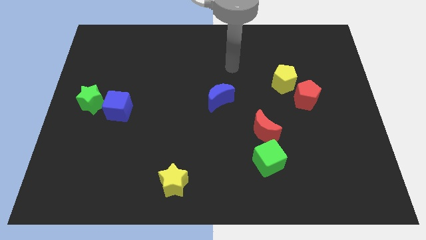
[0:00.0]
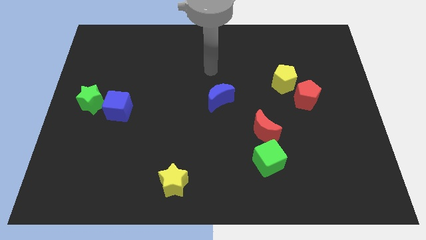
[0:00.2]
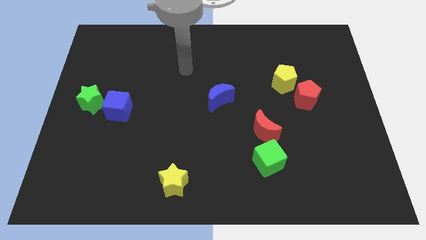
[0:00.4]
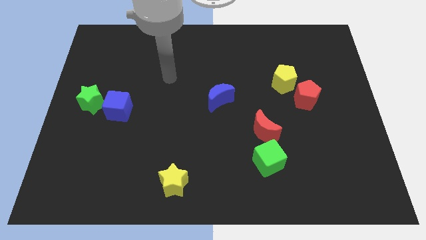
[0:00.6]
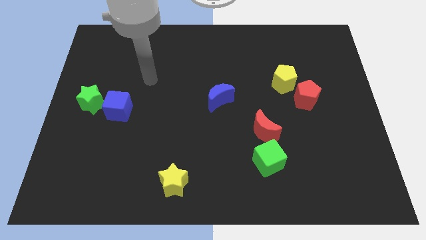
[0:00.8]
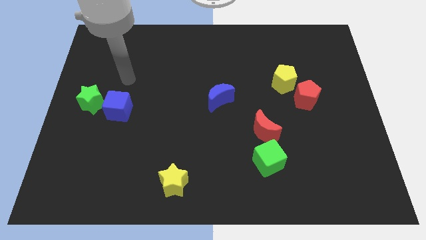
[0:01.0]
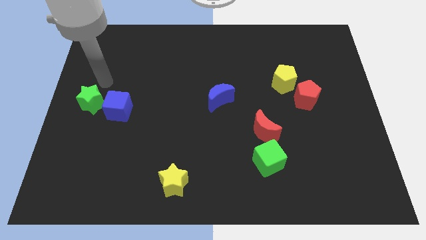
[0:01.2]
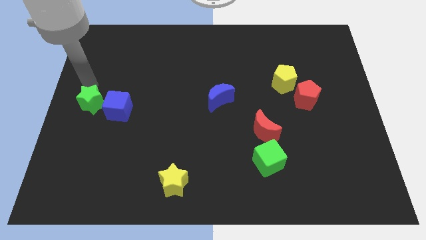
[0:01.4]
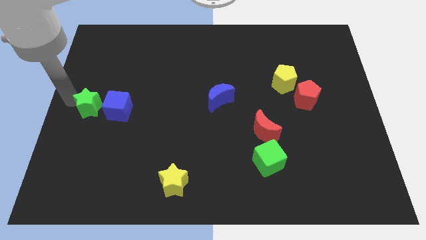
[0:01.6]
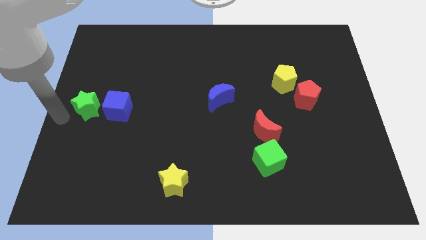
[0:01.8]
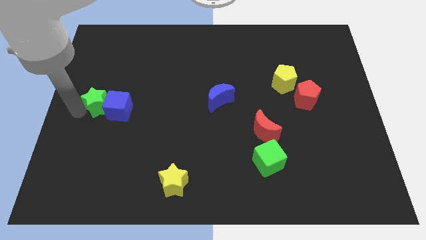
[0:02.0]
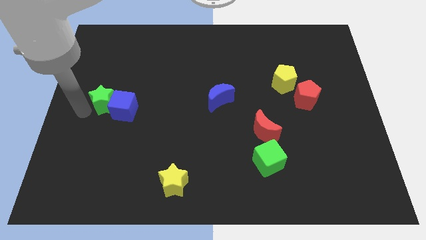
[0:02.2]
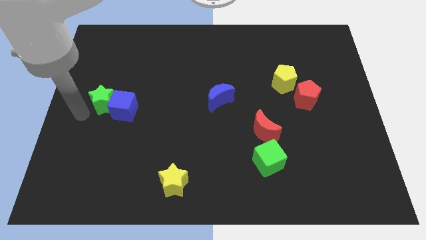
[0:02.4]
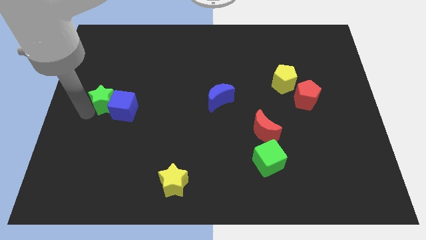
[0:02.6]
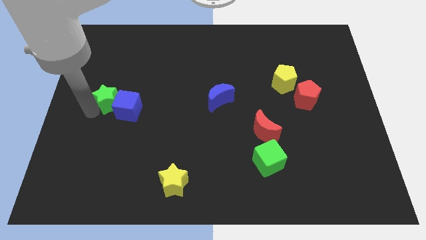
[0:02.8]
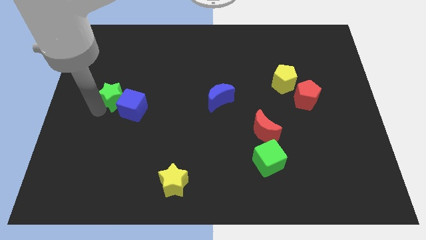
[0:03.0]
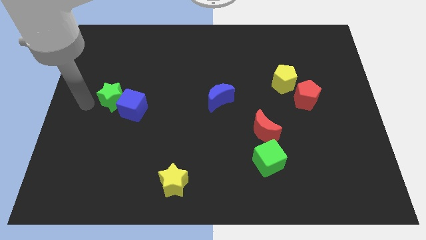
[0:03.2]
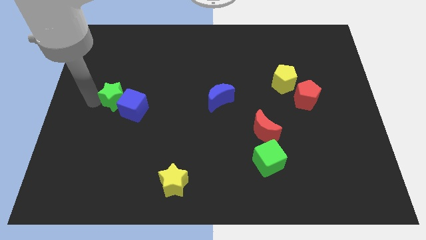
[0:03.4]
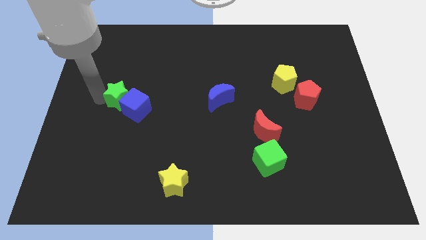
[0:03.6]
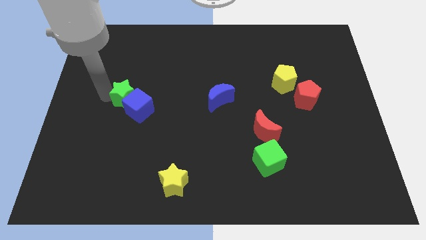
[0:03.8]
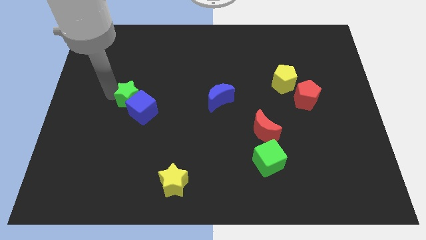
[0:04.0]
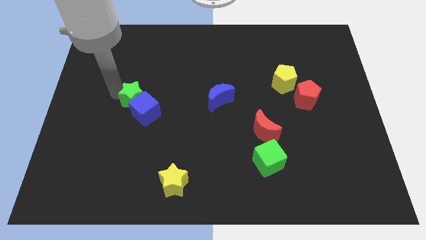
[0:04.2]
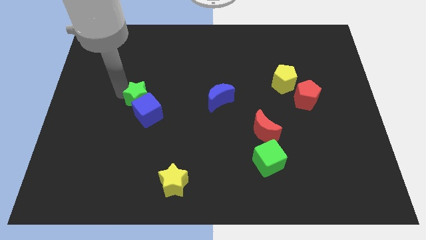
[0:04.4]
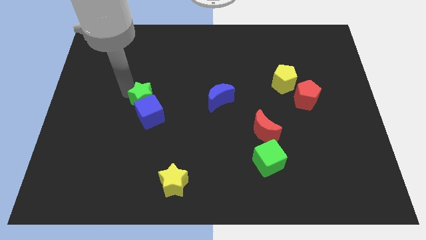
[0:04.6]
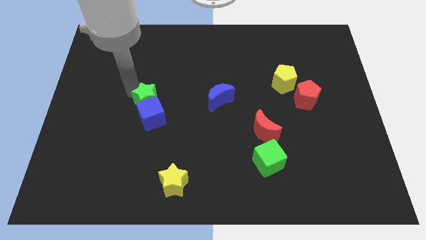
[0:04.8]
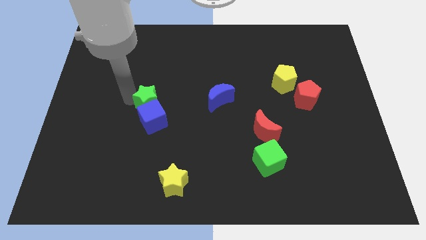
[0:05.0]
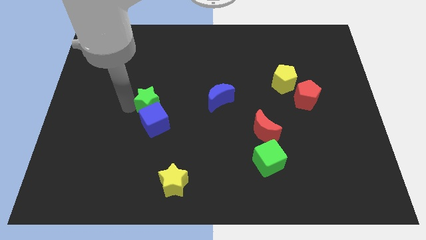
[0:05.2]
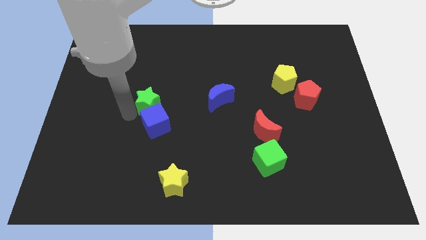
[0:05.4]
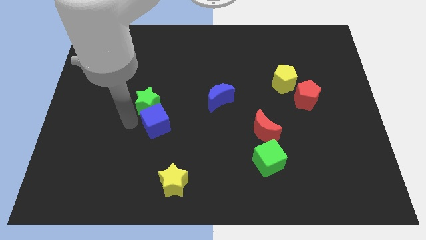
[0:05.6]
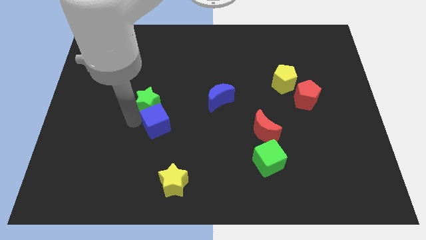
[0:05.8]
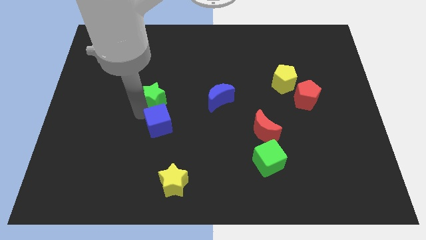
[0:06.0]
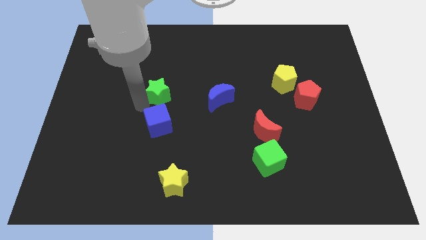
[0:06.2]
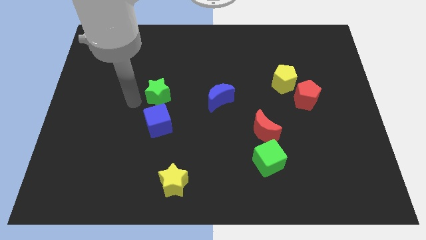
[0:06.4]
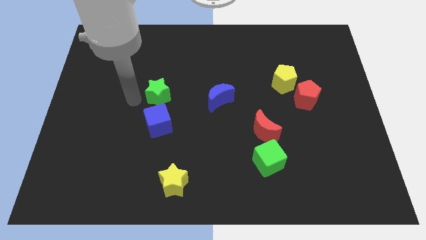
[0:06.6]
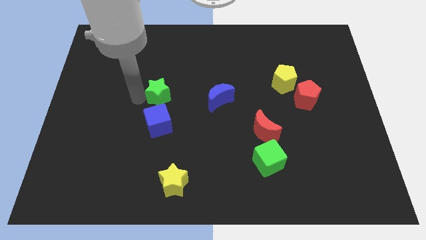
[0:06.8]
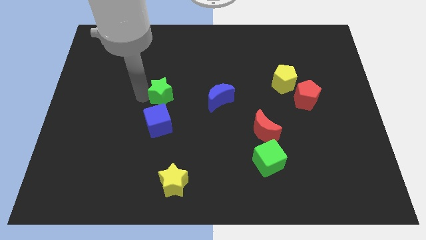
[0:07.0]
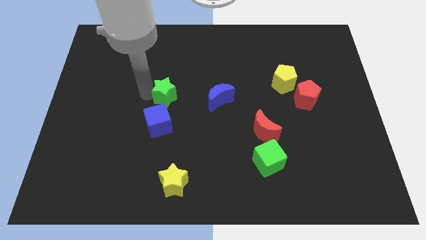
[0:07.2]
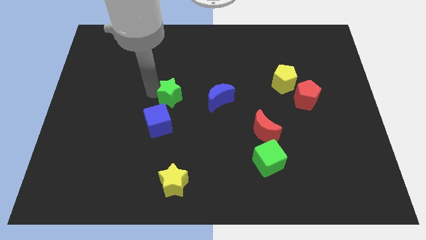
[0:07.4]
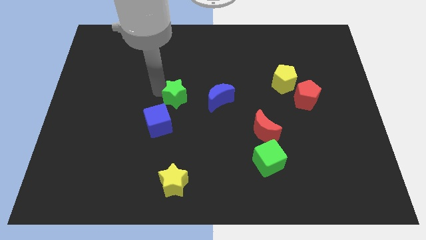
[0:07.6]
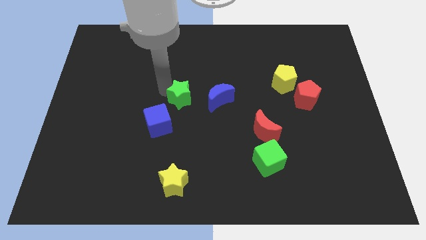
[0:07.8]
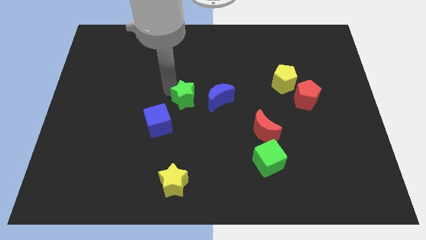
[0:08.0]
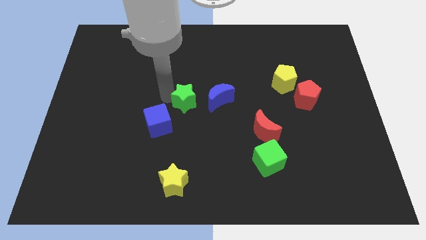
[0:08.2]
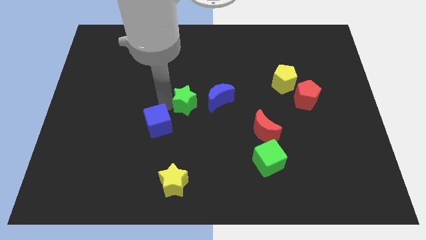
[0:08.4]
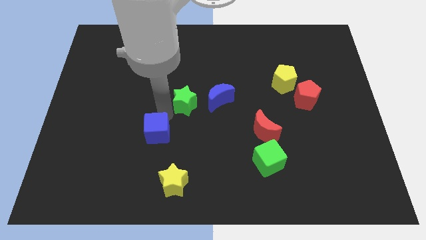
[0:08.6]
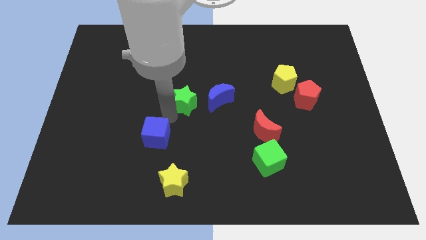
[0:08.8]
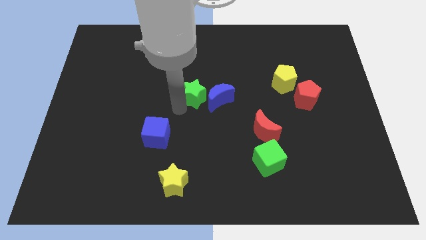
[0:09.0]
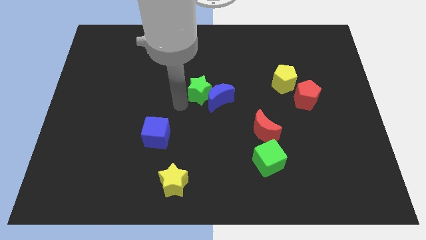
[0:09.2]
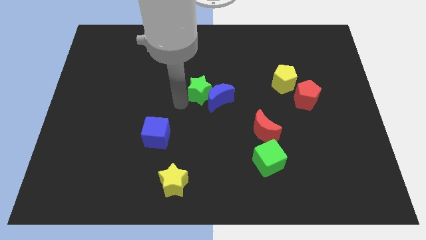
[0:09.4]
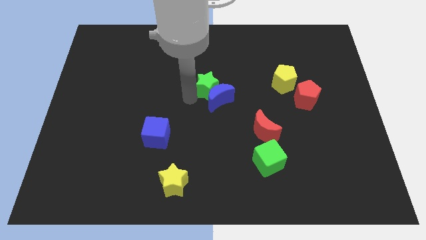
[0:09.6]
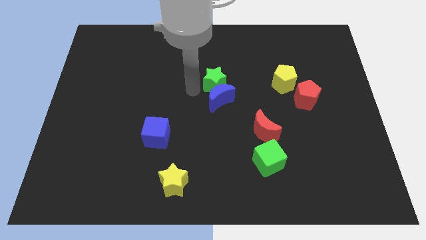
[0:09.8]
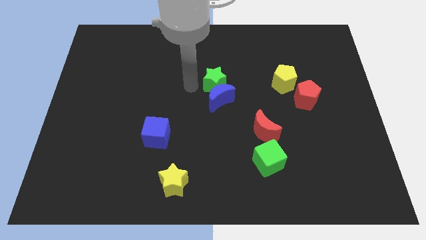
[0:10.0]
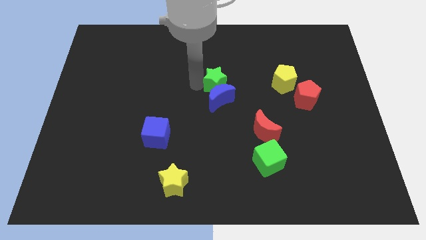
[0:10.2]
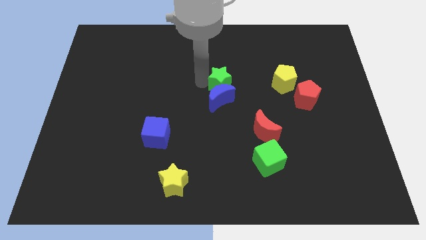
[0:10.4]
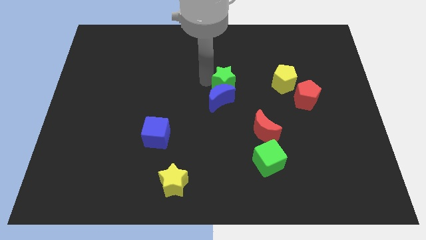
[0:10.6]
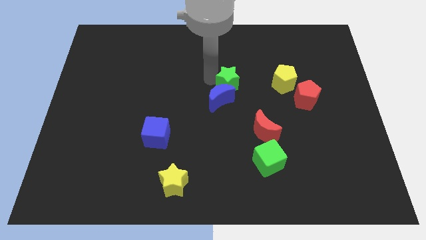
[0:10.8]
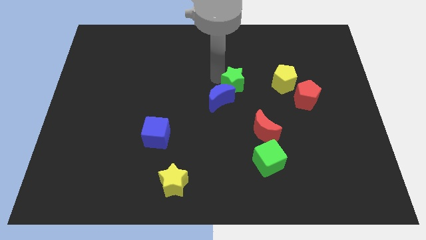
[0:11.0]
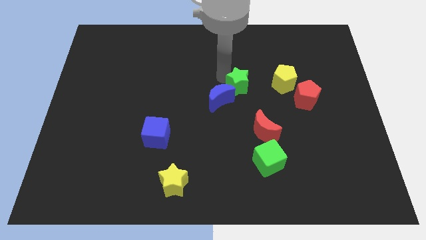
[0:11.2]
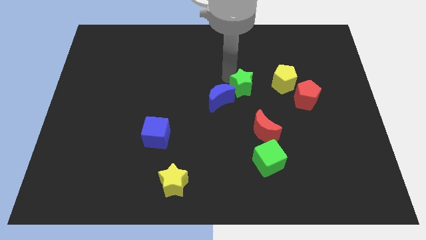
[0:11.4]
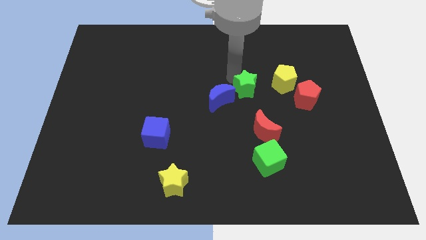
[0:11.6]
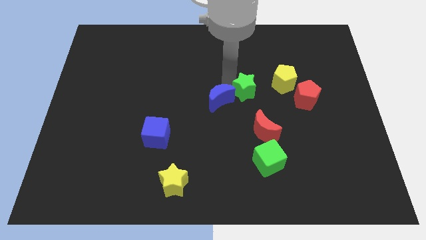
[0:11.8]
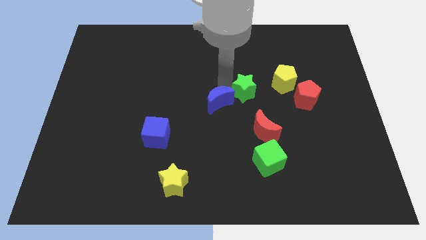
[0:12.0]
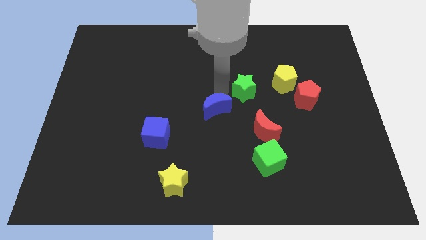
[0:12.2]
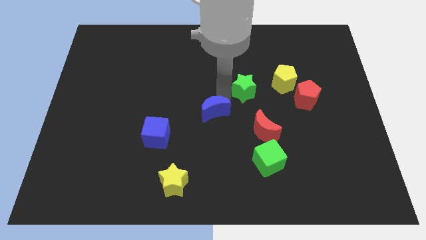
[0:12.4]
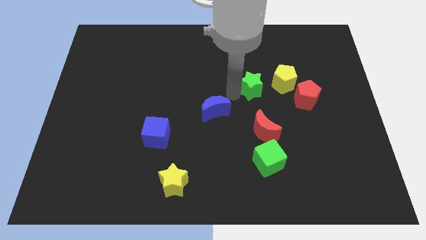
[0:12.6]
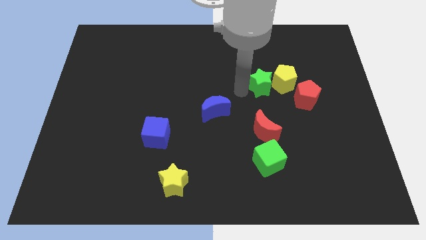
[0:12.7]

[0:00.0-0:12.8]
slide the green star close to the yellow pentagon

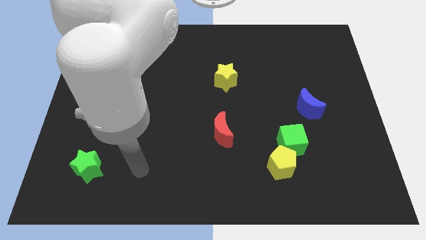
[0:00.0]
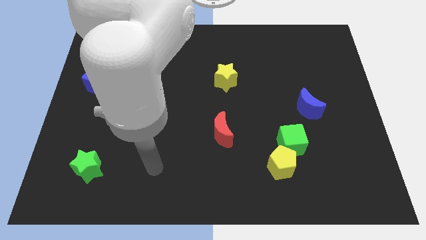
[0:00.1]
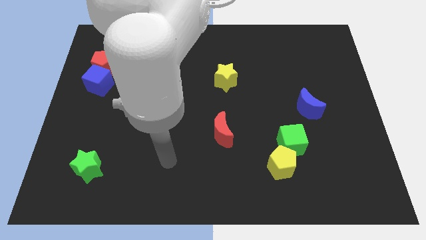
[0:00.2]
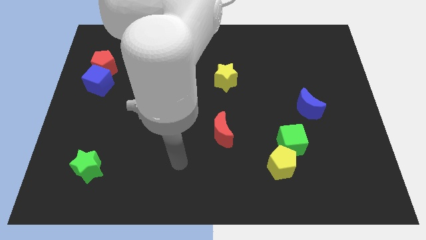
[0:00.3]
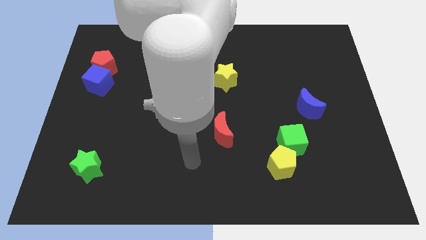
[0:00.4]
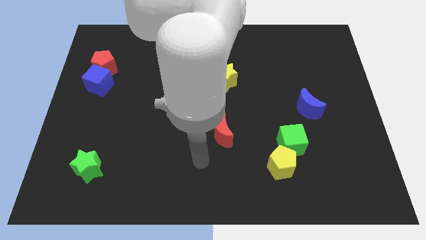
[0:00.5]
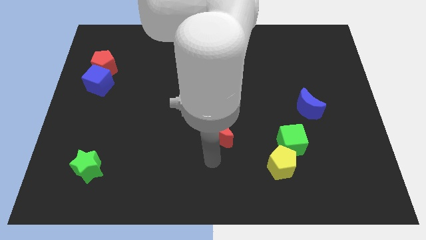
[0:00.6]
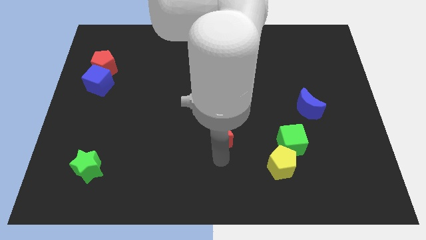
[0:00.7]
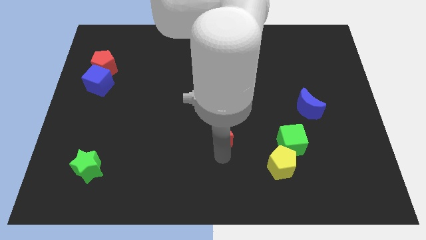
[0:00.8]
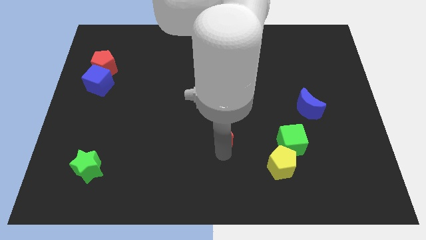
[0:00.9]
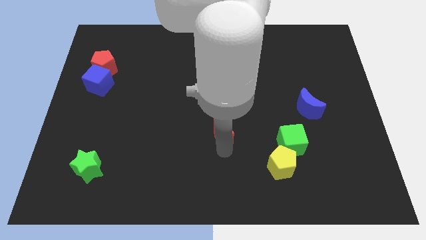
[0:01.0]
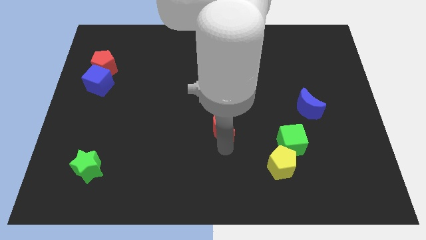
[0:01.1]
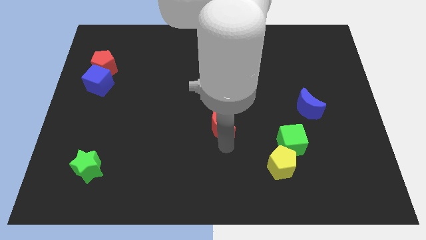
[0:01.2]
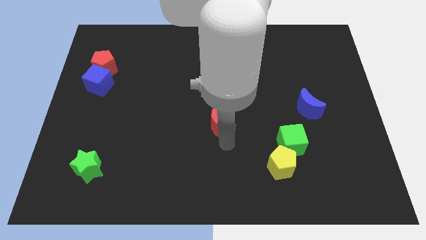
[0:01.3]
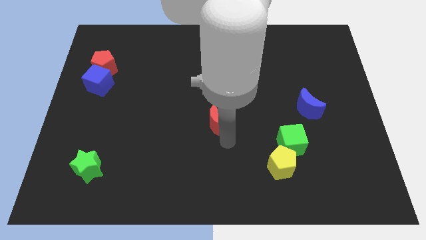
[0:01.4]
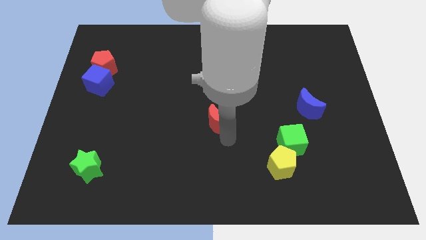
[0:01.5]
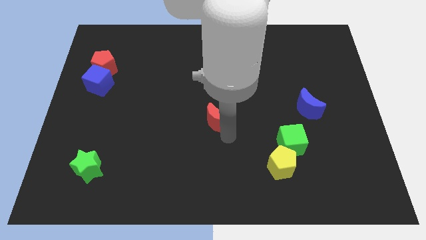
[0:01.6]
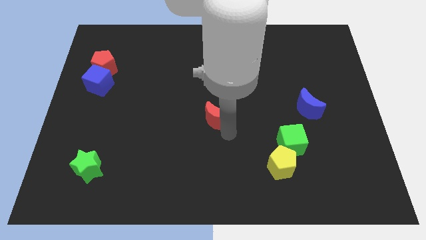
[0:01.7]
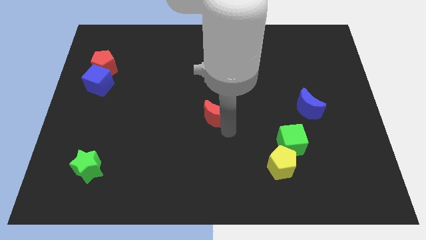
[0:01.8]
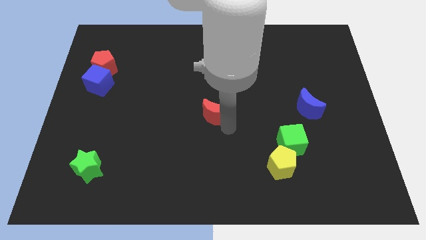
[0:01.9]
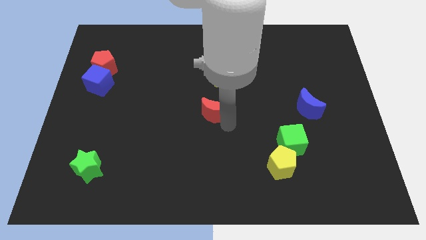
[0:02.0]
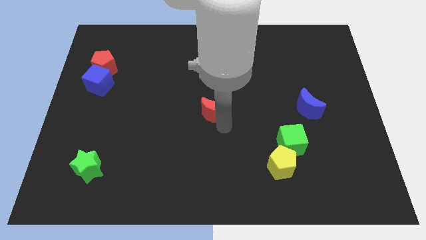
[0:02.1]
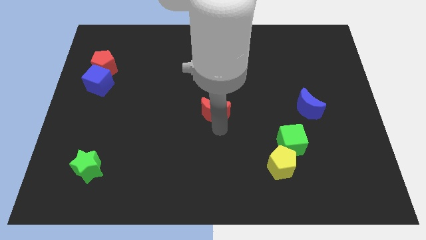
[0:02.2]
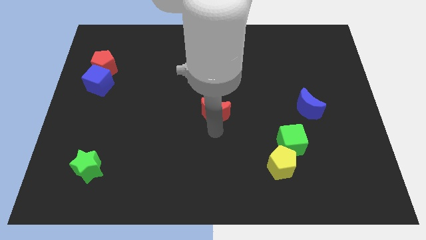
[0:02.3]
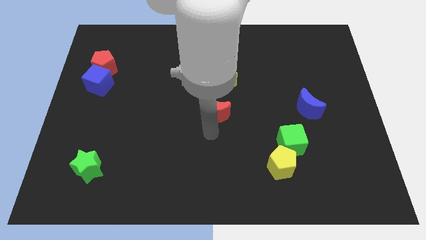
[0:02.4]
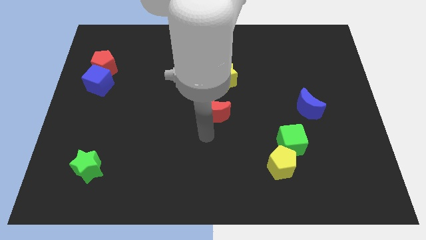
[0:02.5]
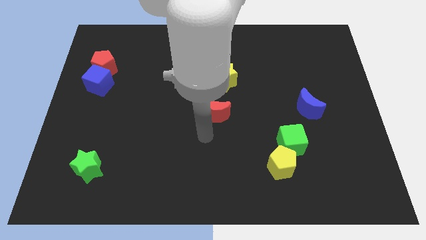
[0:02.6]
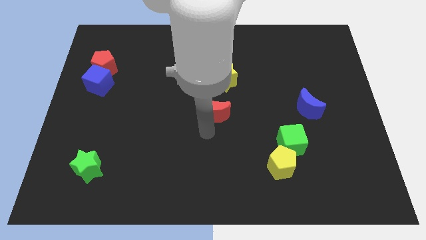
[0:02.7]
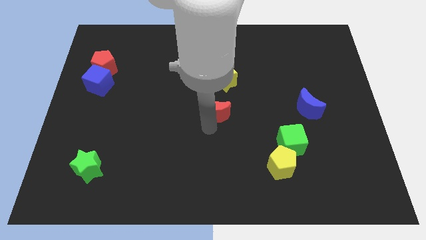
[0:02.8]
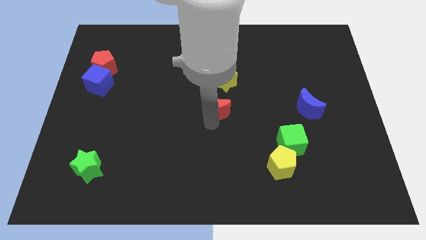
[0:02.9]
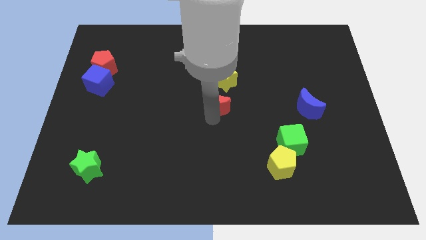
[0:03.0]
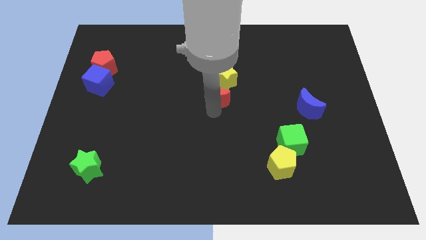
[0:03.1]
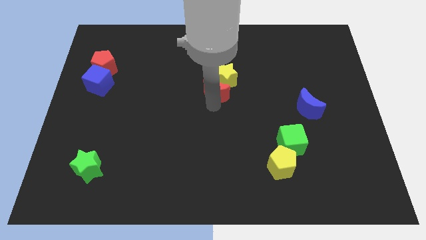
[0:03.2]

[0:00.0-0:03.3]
slide the red moon close to the yellow star
